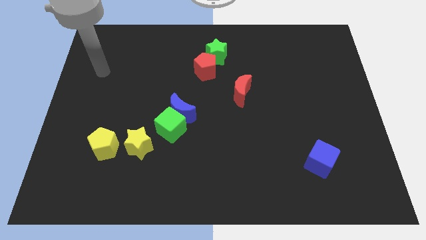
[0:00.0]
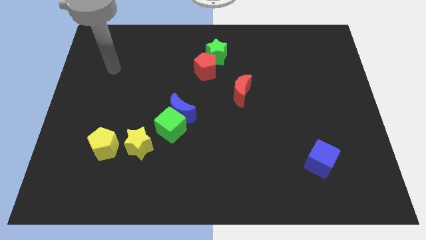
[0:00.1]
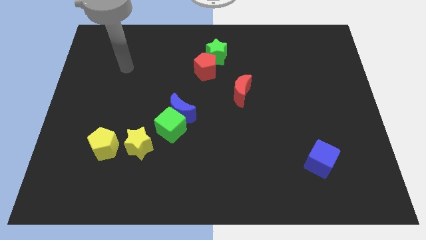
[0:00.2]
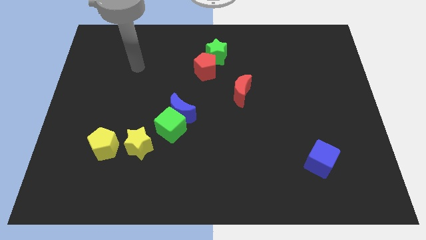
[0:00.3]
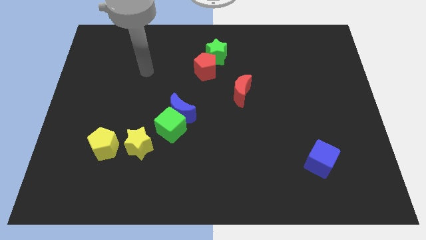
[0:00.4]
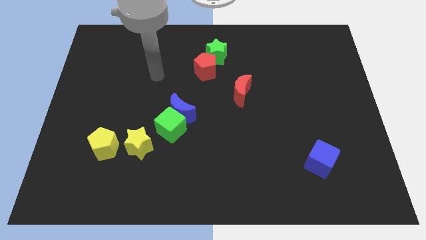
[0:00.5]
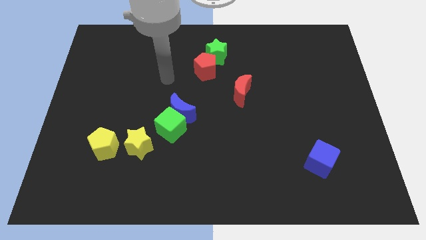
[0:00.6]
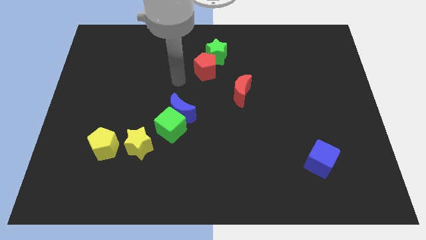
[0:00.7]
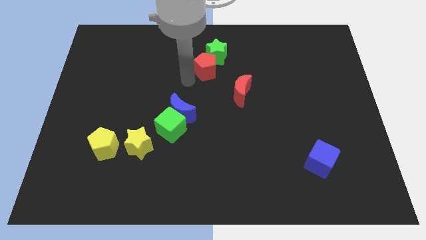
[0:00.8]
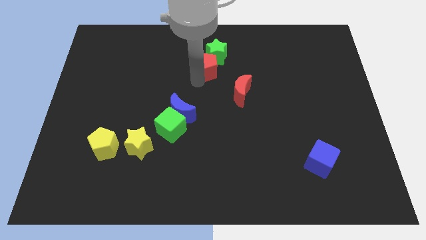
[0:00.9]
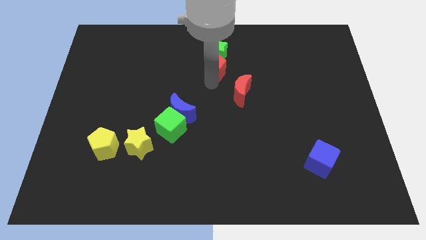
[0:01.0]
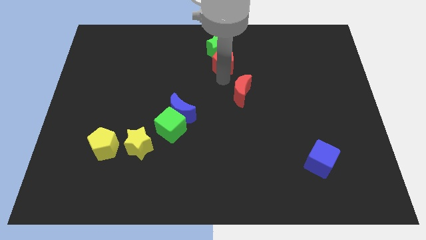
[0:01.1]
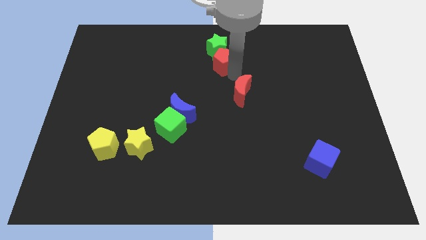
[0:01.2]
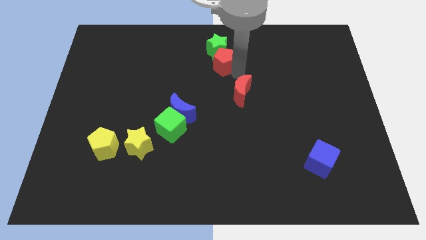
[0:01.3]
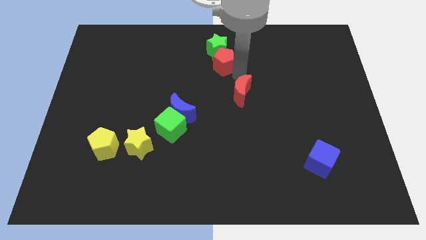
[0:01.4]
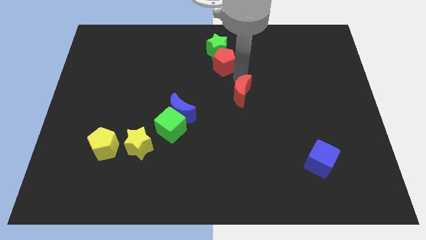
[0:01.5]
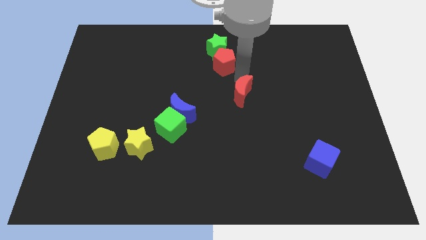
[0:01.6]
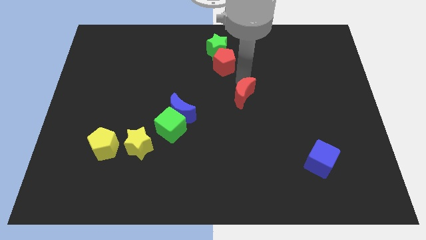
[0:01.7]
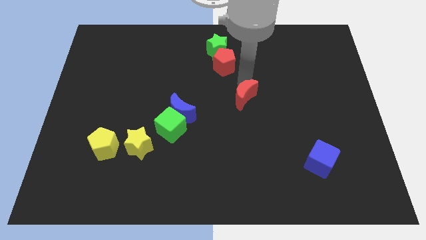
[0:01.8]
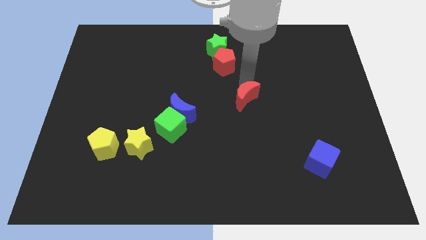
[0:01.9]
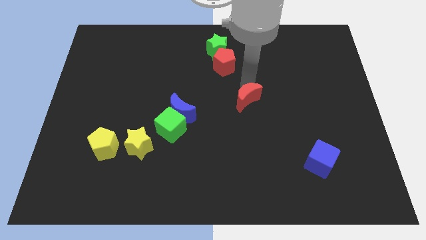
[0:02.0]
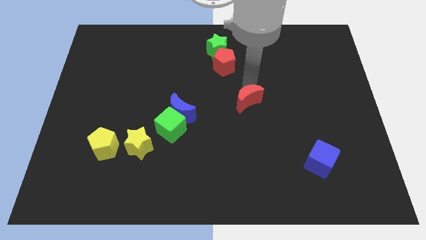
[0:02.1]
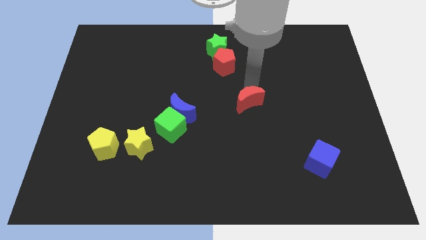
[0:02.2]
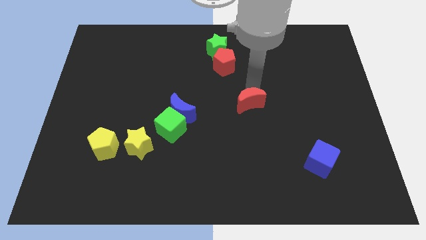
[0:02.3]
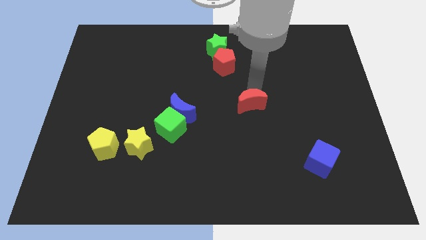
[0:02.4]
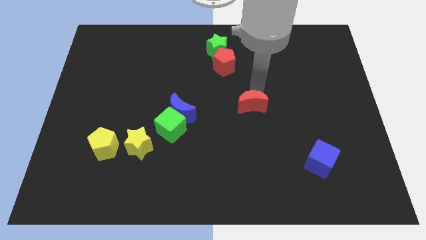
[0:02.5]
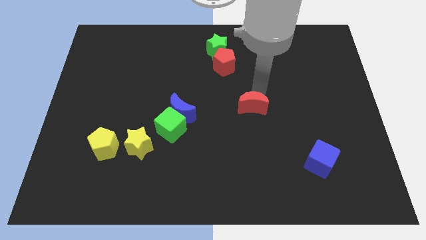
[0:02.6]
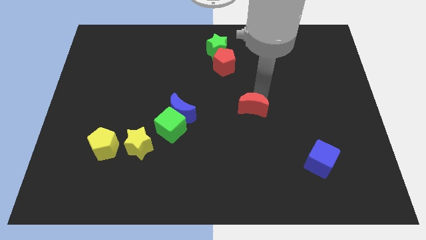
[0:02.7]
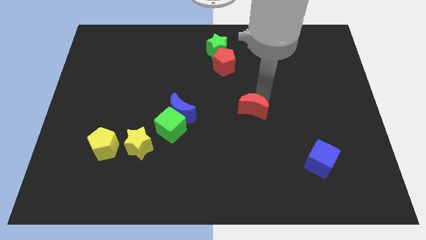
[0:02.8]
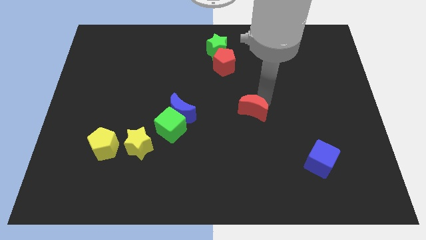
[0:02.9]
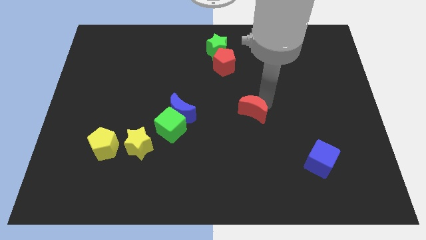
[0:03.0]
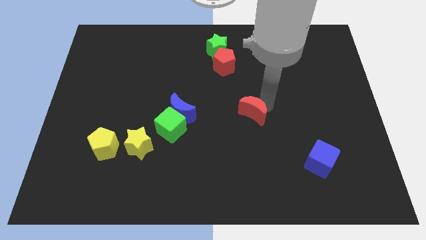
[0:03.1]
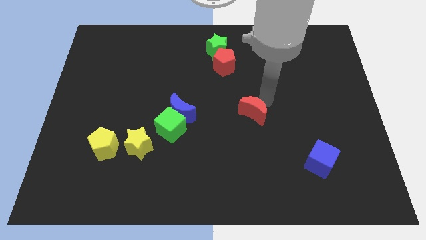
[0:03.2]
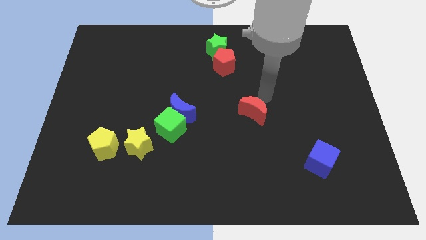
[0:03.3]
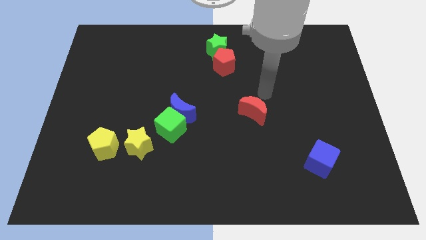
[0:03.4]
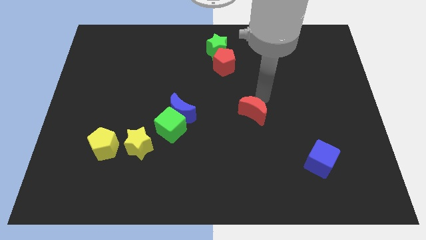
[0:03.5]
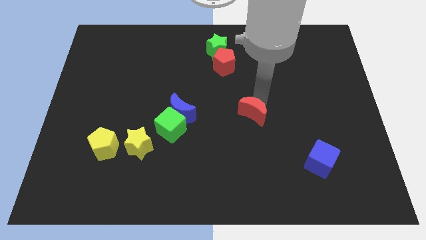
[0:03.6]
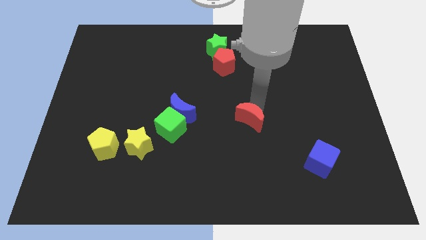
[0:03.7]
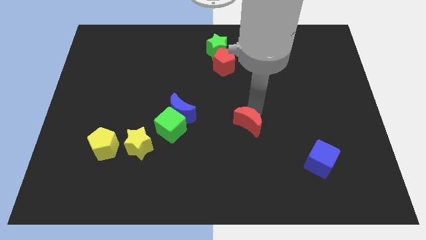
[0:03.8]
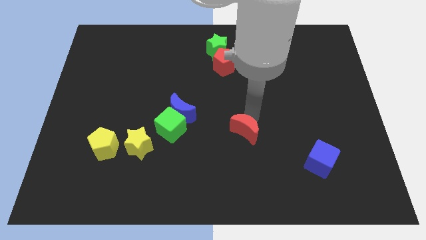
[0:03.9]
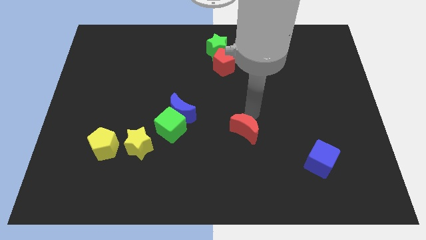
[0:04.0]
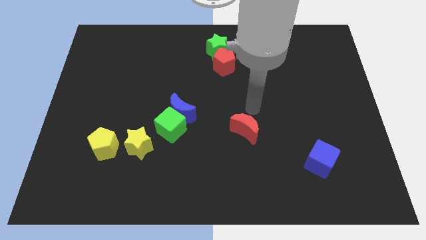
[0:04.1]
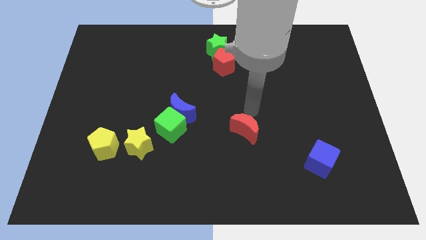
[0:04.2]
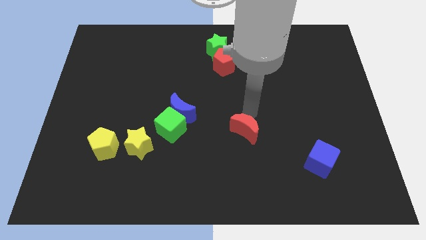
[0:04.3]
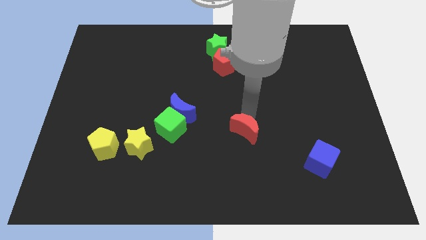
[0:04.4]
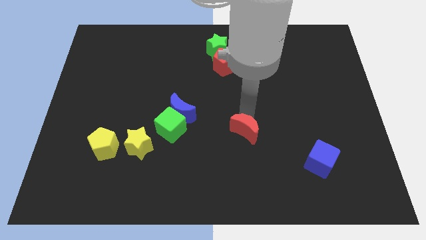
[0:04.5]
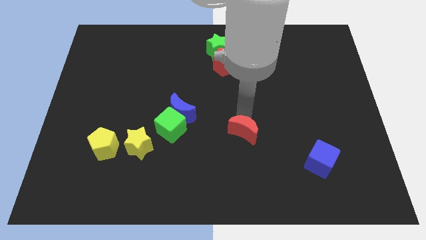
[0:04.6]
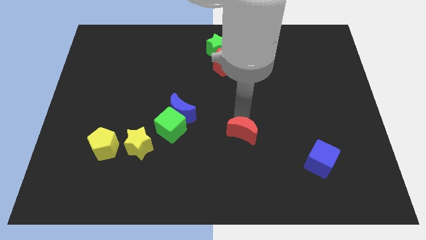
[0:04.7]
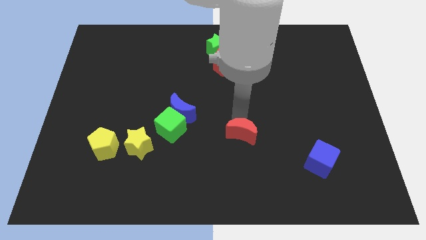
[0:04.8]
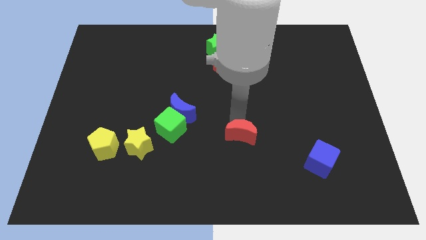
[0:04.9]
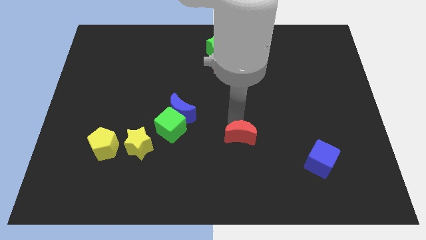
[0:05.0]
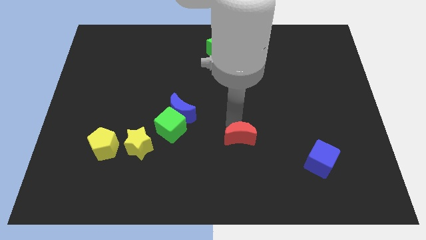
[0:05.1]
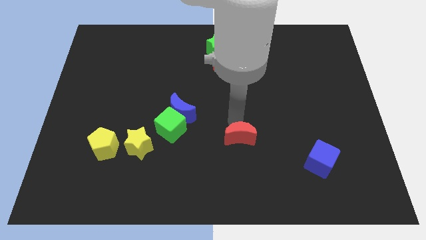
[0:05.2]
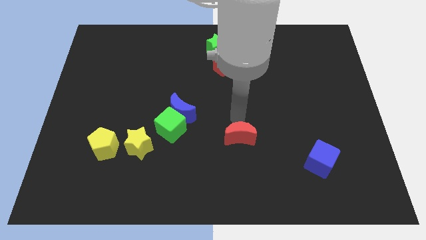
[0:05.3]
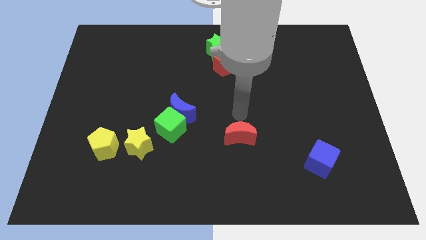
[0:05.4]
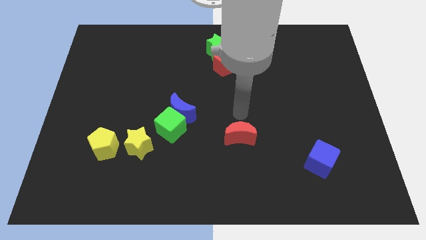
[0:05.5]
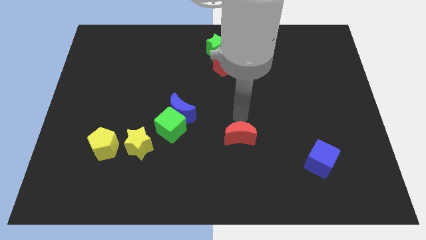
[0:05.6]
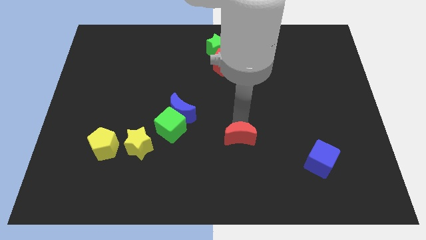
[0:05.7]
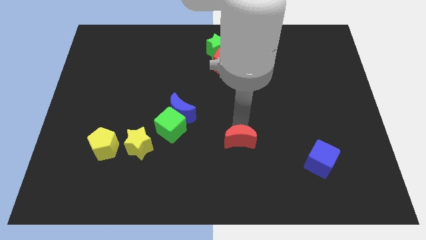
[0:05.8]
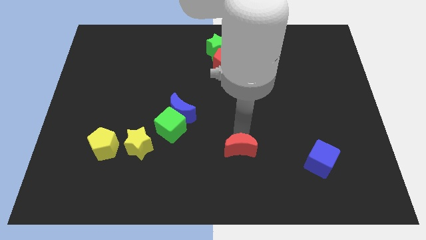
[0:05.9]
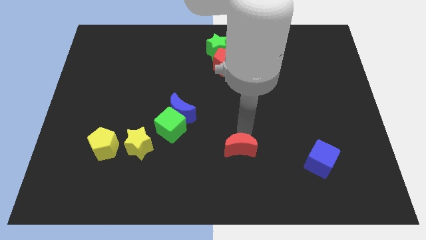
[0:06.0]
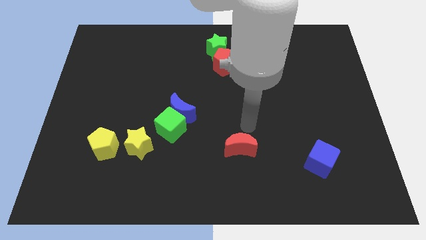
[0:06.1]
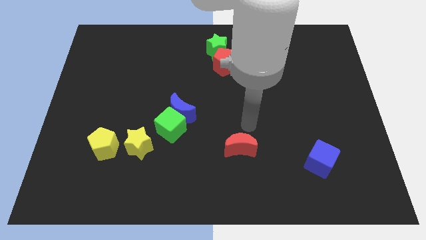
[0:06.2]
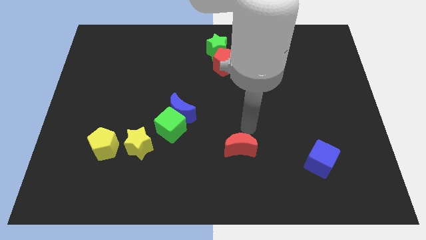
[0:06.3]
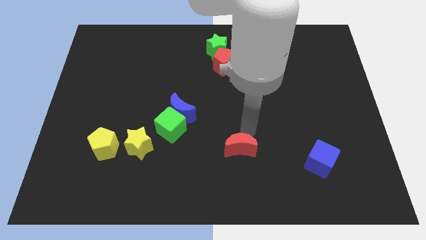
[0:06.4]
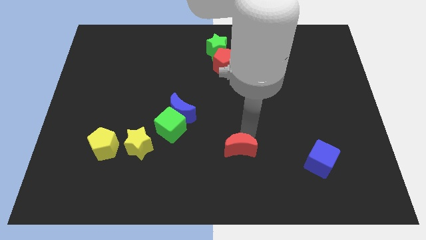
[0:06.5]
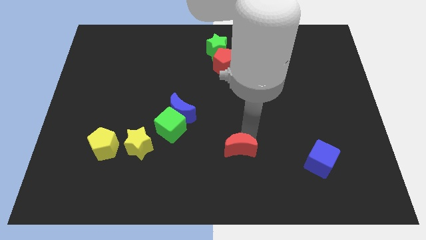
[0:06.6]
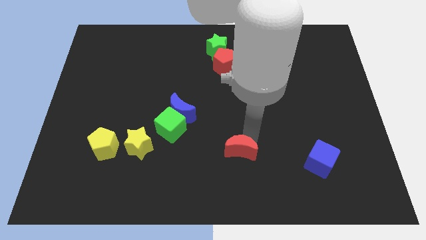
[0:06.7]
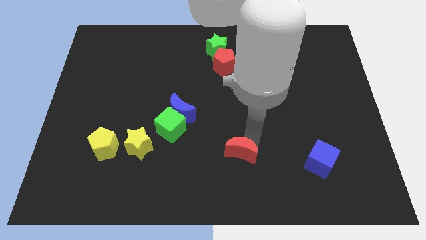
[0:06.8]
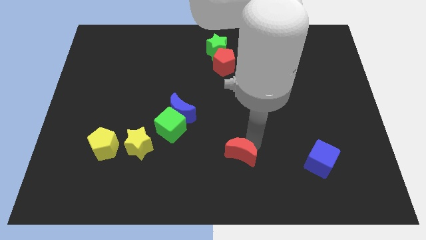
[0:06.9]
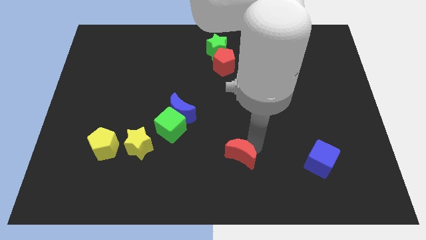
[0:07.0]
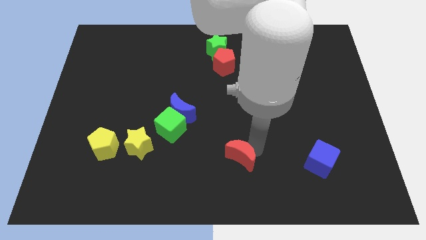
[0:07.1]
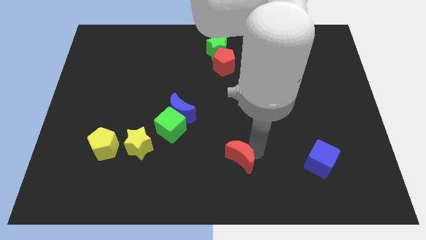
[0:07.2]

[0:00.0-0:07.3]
push the red moon to the bottom
